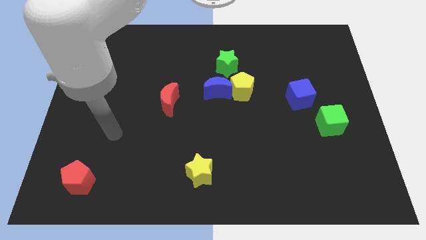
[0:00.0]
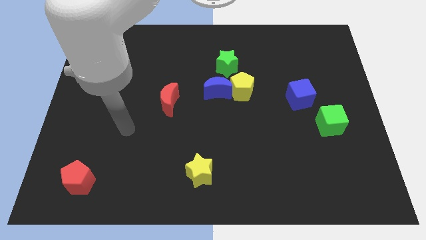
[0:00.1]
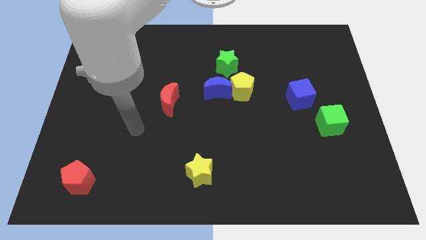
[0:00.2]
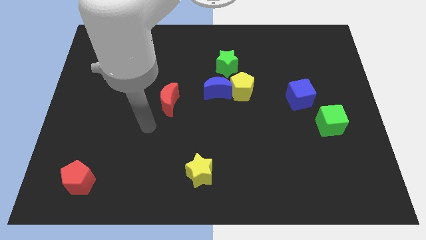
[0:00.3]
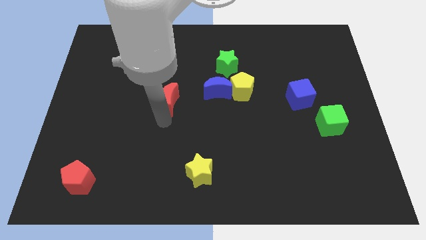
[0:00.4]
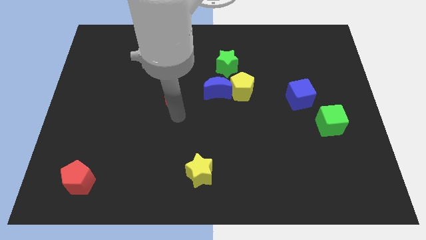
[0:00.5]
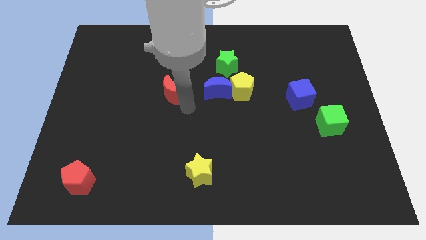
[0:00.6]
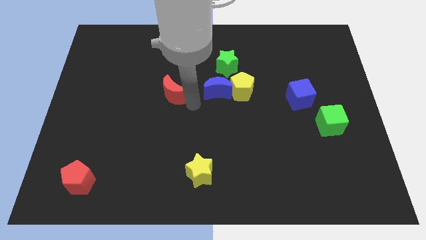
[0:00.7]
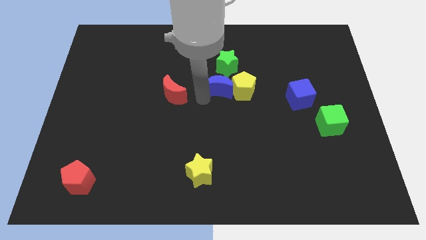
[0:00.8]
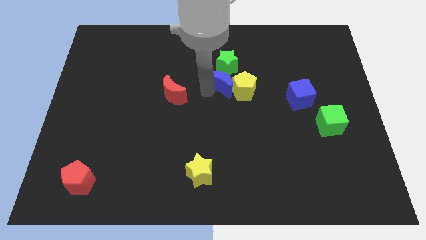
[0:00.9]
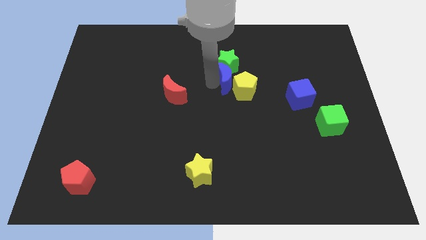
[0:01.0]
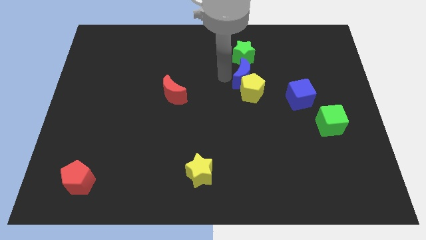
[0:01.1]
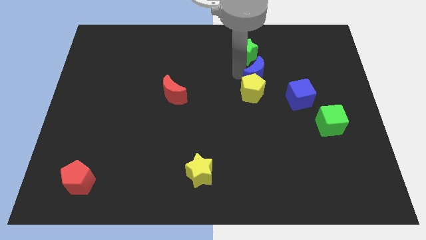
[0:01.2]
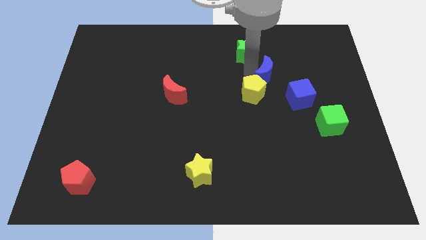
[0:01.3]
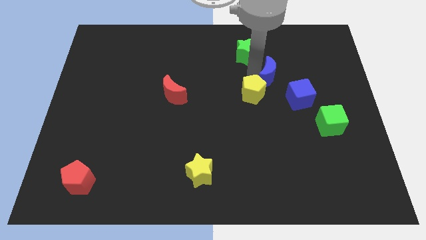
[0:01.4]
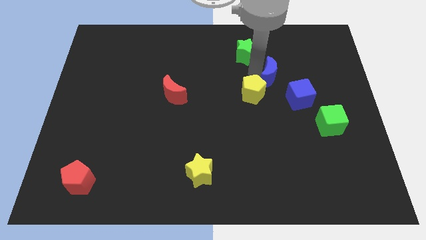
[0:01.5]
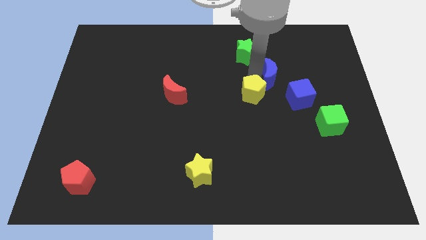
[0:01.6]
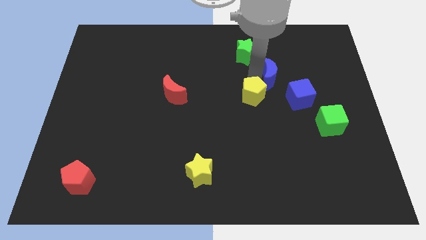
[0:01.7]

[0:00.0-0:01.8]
separate the yellow pentagon from the blue moon and green star

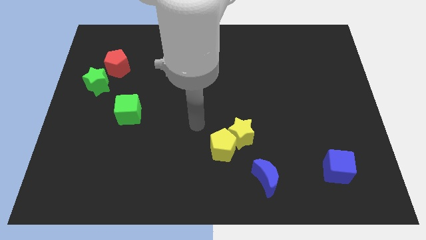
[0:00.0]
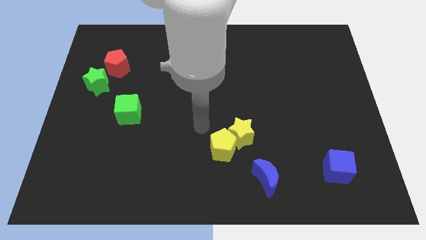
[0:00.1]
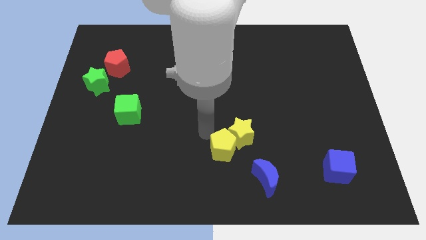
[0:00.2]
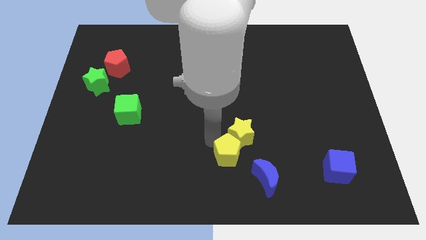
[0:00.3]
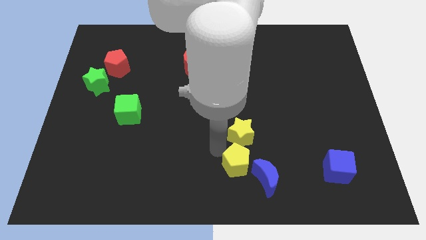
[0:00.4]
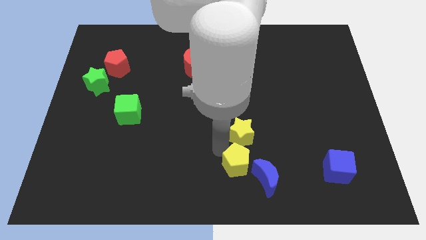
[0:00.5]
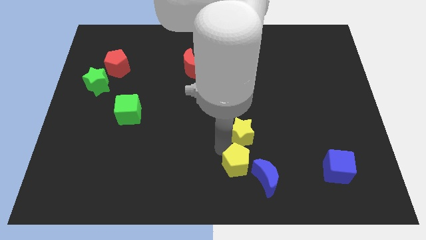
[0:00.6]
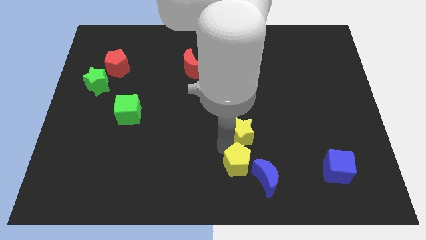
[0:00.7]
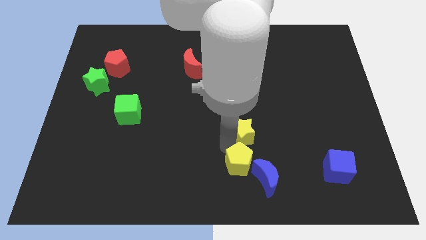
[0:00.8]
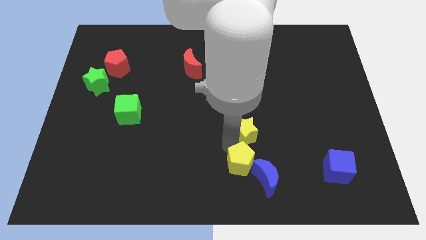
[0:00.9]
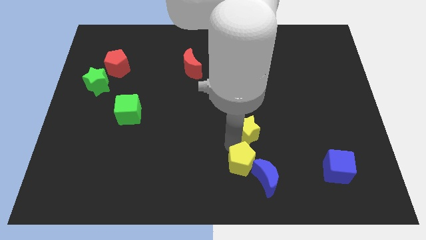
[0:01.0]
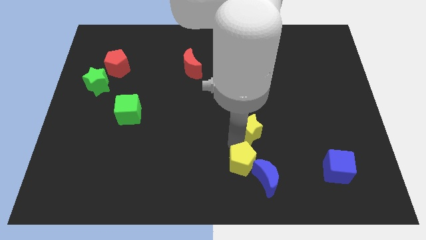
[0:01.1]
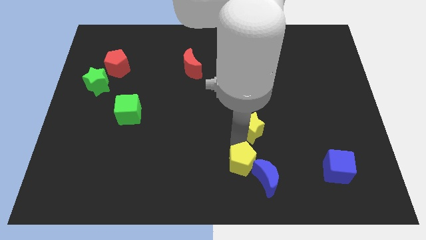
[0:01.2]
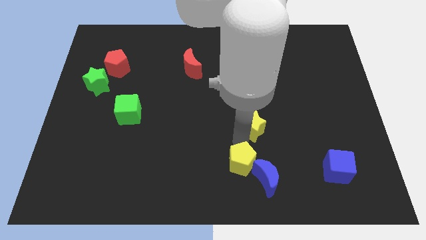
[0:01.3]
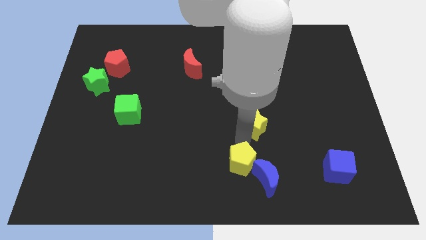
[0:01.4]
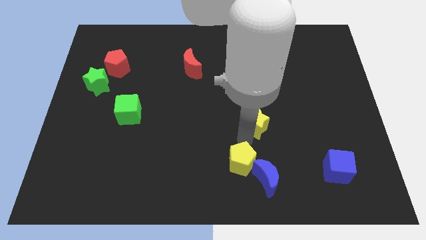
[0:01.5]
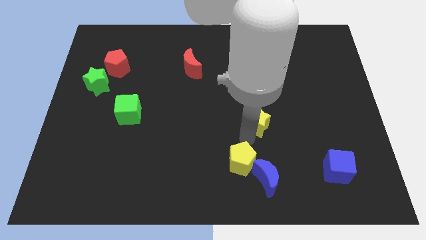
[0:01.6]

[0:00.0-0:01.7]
pull the yellow star apart from the yellow pentagon

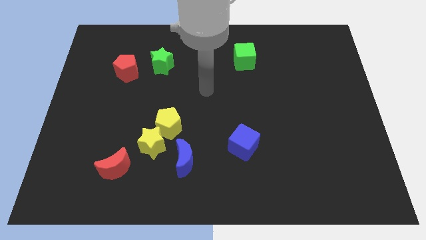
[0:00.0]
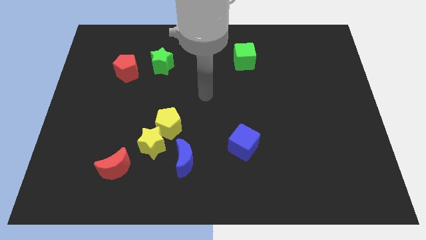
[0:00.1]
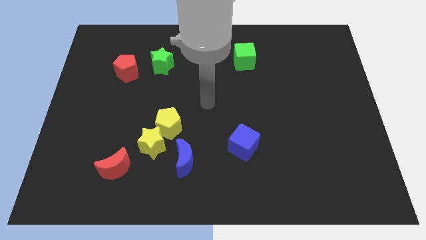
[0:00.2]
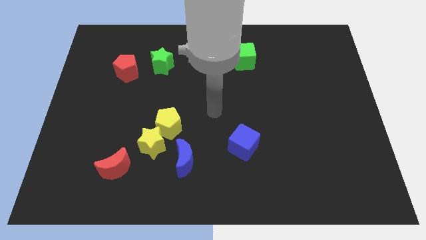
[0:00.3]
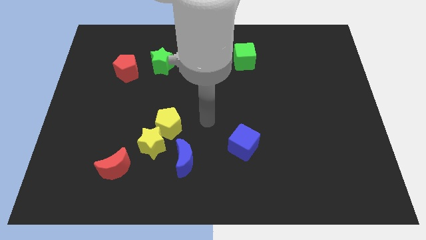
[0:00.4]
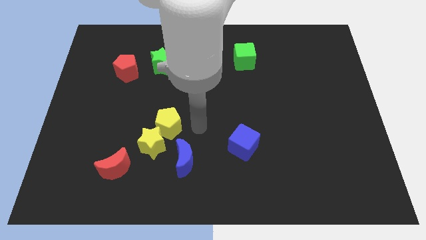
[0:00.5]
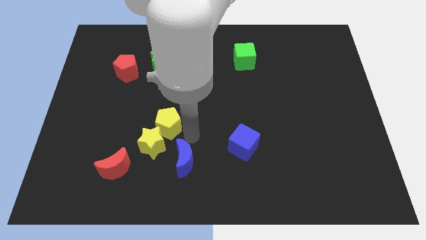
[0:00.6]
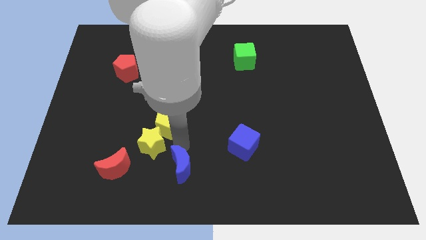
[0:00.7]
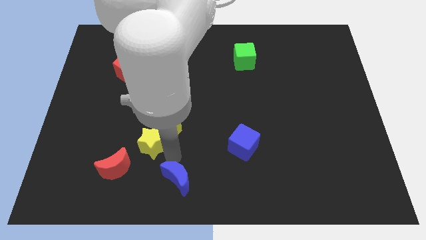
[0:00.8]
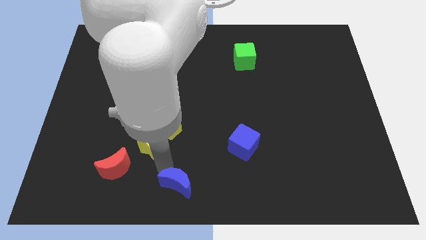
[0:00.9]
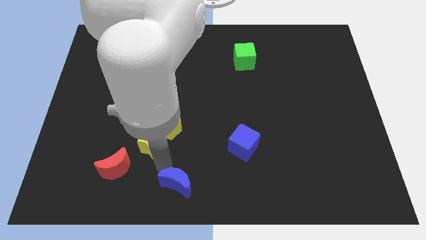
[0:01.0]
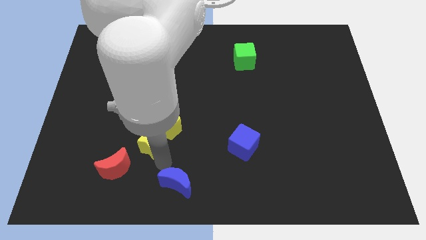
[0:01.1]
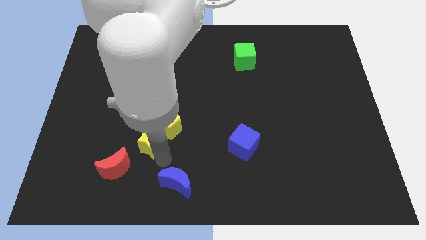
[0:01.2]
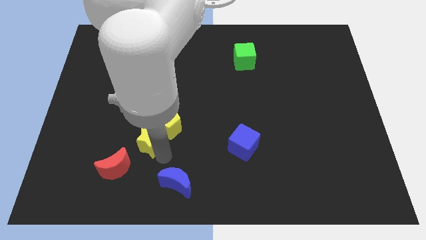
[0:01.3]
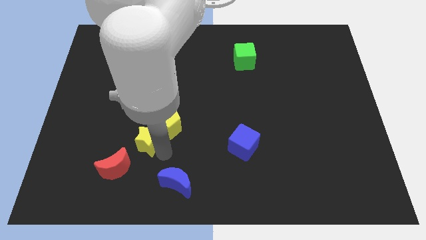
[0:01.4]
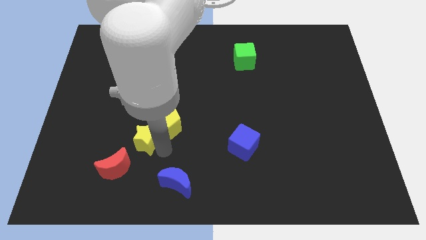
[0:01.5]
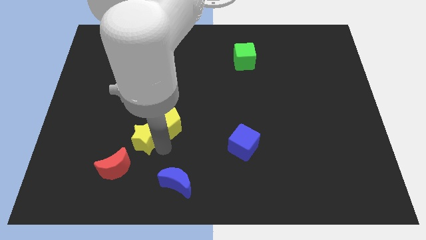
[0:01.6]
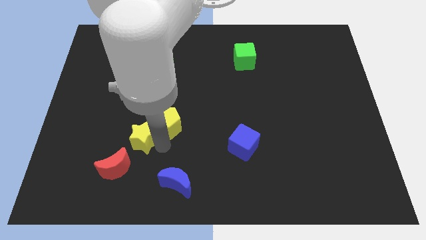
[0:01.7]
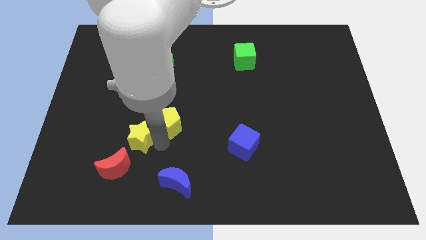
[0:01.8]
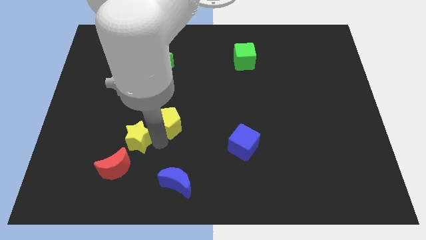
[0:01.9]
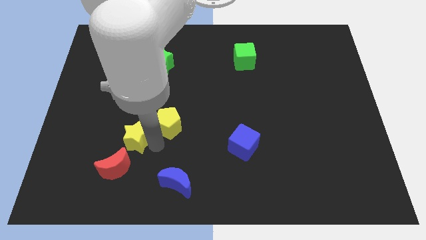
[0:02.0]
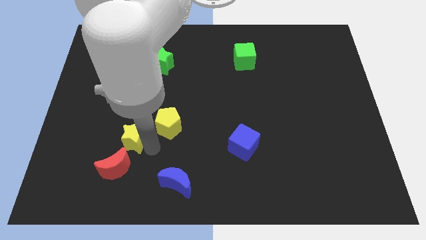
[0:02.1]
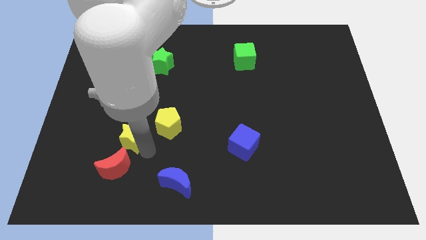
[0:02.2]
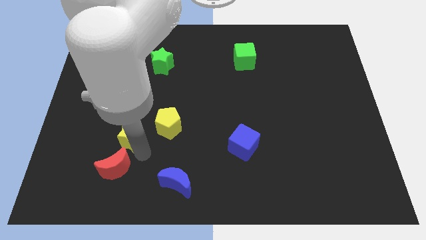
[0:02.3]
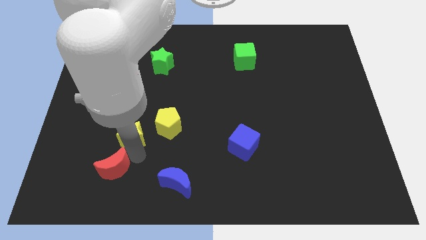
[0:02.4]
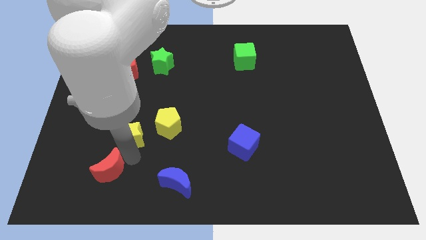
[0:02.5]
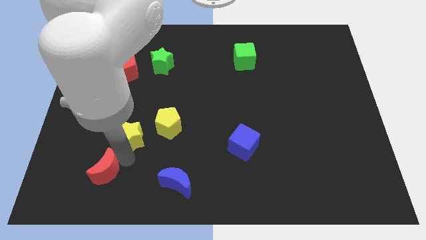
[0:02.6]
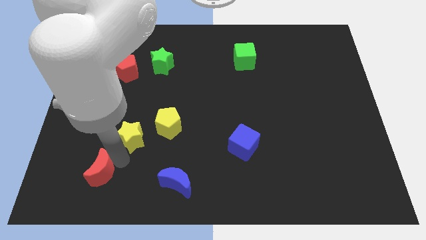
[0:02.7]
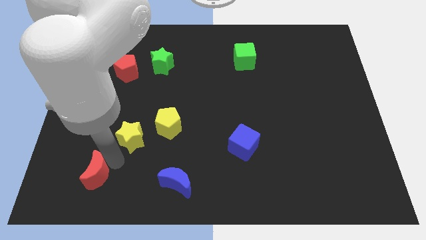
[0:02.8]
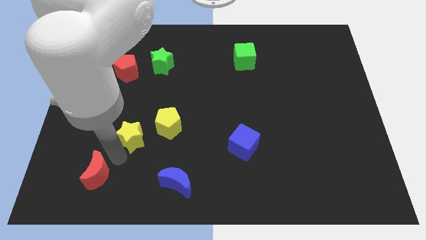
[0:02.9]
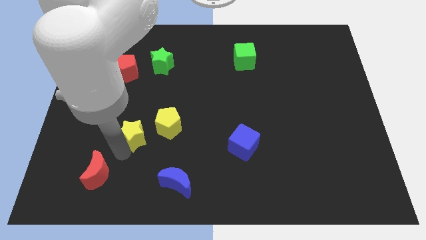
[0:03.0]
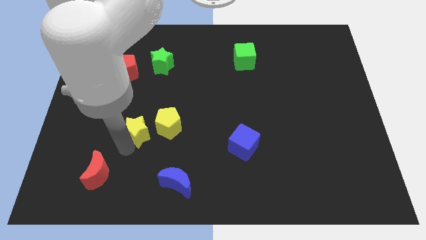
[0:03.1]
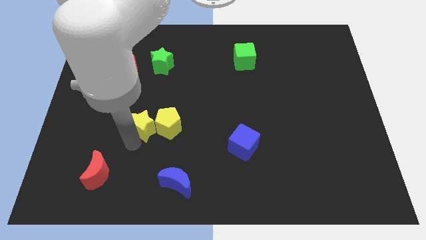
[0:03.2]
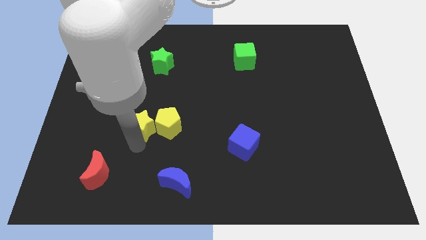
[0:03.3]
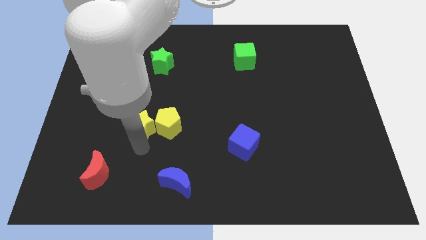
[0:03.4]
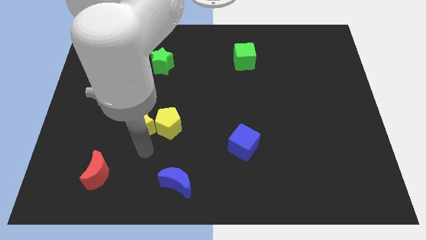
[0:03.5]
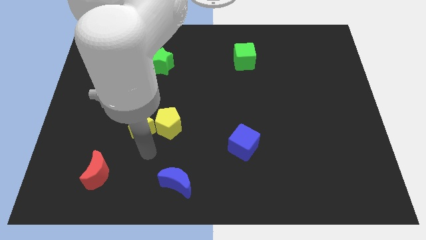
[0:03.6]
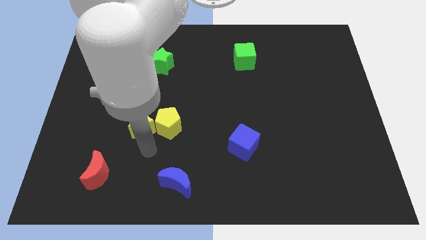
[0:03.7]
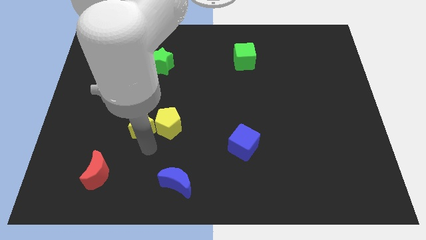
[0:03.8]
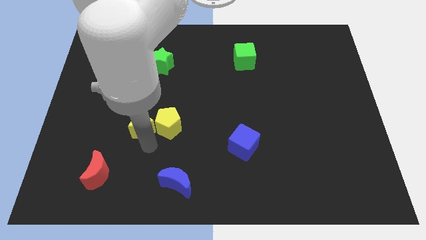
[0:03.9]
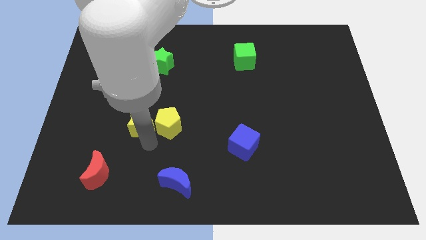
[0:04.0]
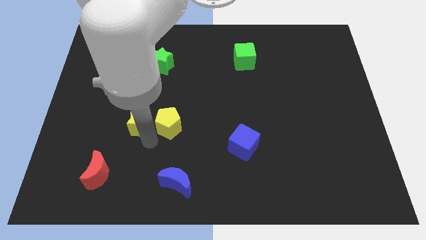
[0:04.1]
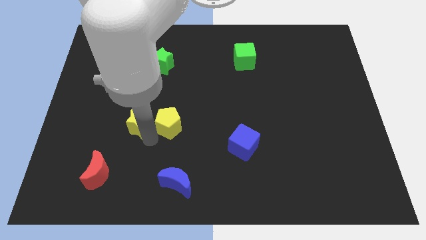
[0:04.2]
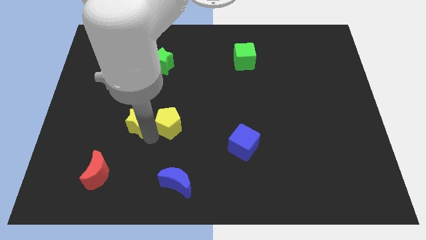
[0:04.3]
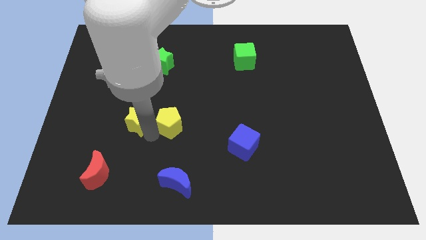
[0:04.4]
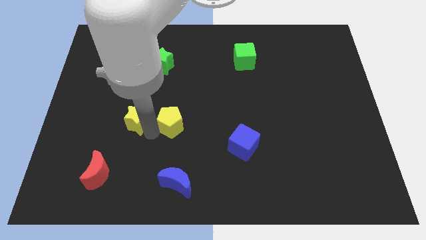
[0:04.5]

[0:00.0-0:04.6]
pull the yellow star apart from the group of blocks

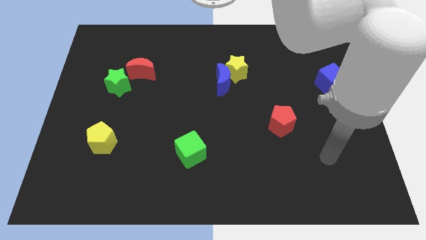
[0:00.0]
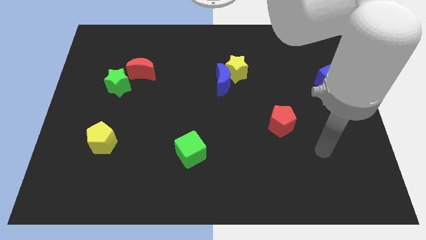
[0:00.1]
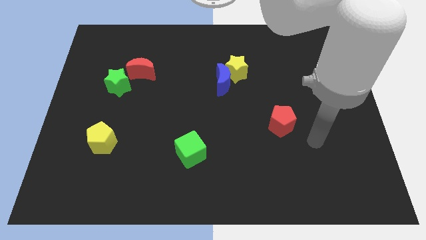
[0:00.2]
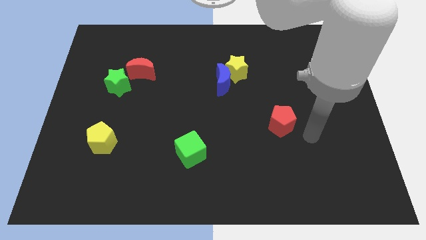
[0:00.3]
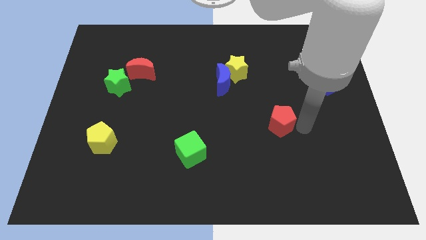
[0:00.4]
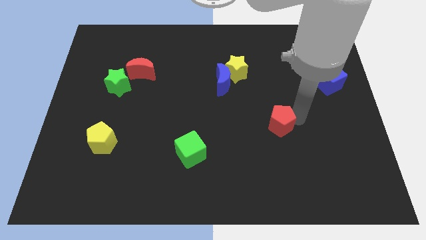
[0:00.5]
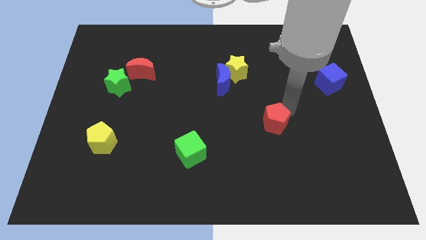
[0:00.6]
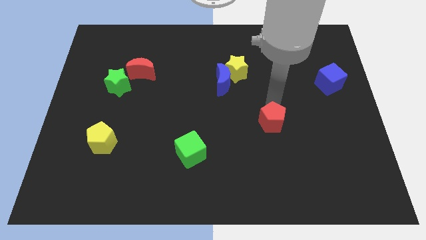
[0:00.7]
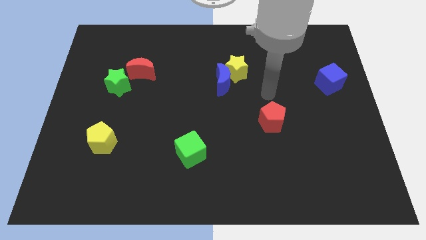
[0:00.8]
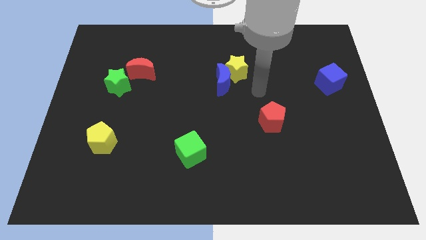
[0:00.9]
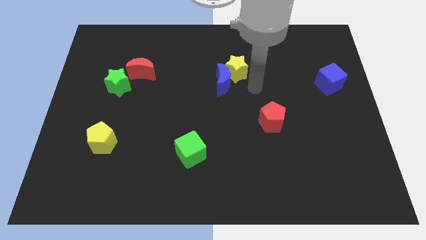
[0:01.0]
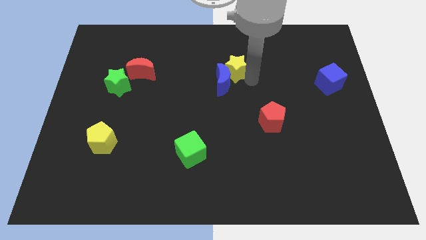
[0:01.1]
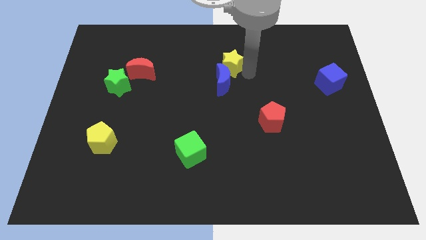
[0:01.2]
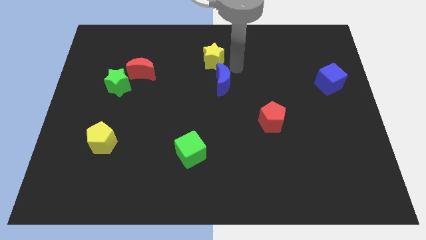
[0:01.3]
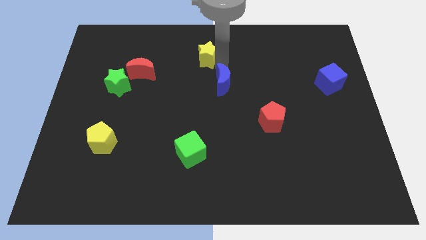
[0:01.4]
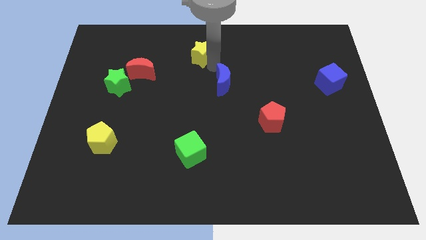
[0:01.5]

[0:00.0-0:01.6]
pull the blue moon apart from the yellow star
